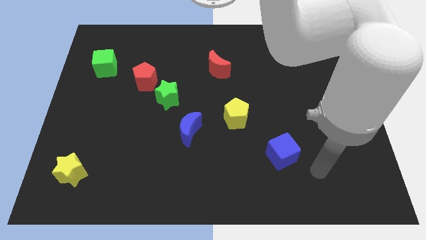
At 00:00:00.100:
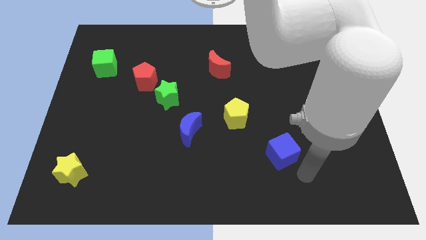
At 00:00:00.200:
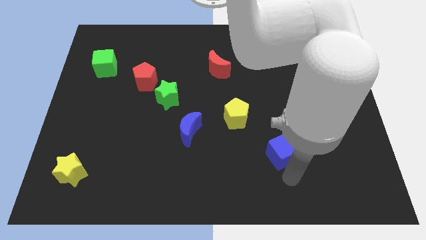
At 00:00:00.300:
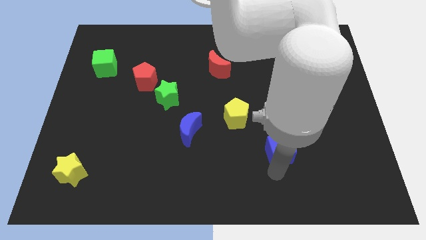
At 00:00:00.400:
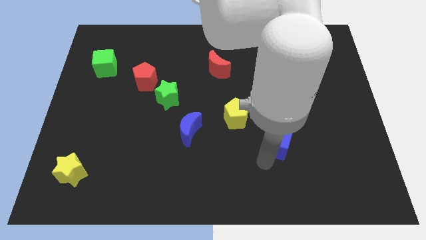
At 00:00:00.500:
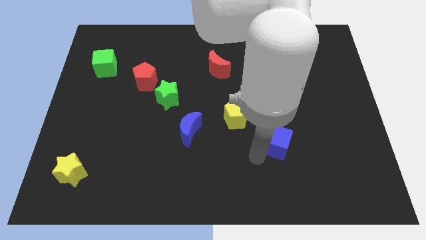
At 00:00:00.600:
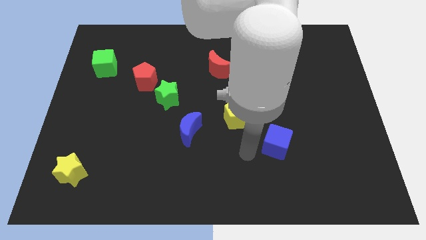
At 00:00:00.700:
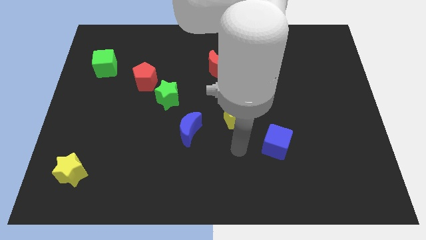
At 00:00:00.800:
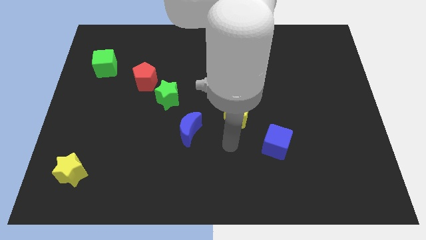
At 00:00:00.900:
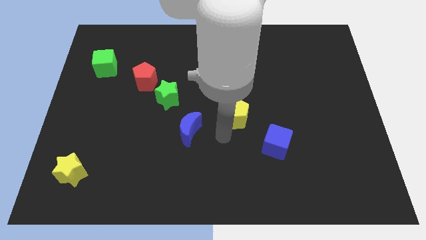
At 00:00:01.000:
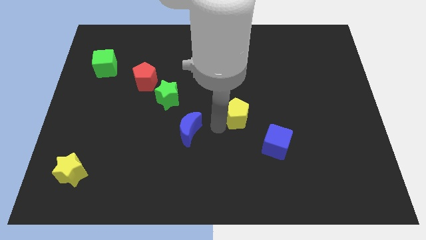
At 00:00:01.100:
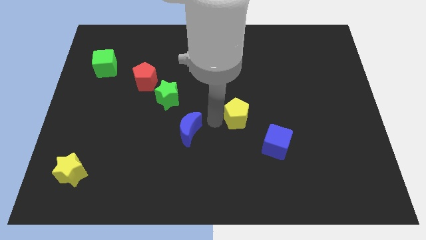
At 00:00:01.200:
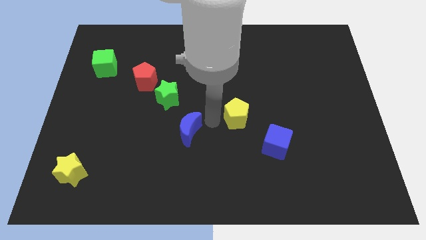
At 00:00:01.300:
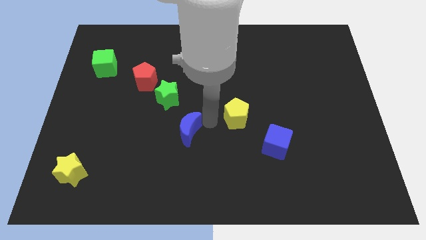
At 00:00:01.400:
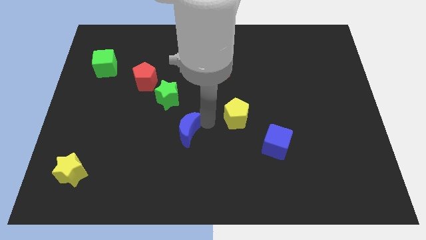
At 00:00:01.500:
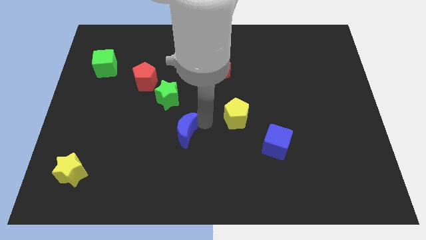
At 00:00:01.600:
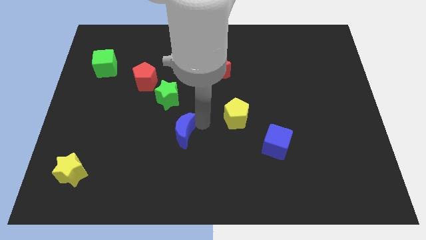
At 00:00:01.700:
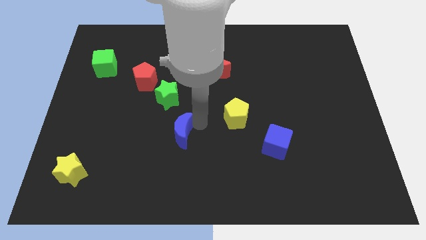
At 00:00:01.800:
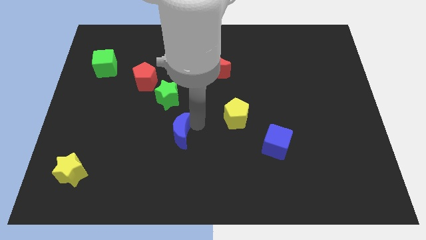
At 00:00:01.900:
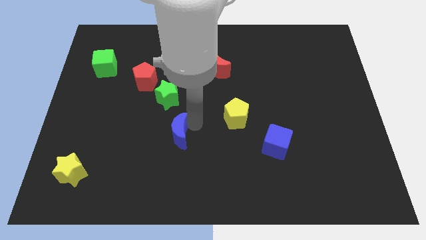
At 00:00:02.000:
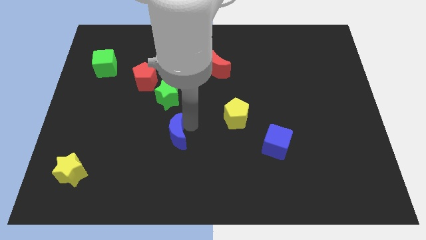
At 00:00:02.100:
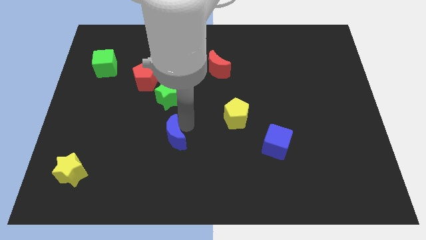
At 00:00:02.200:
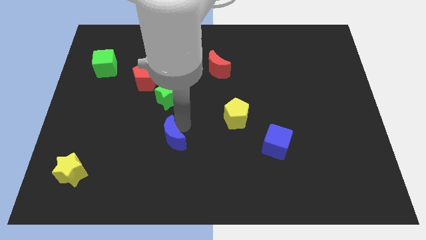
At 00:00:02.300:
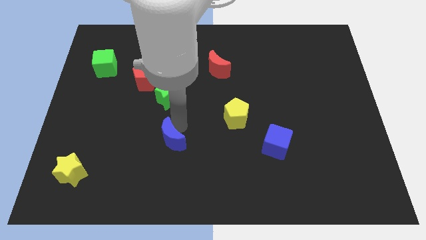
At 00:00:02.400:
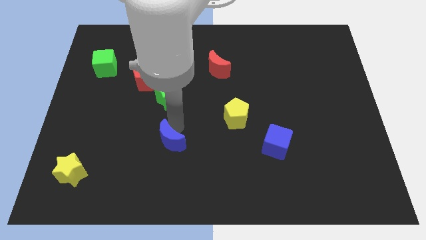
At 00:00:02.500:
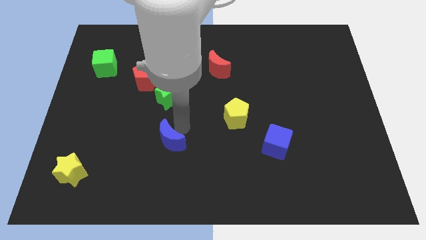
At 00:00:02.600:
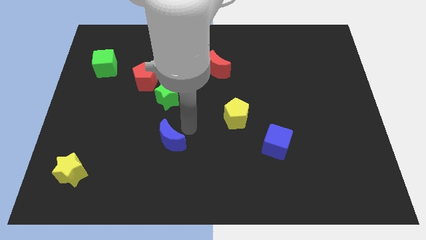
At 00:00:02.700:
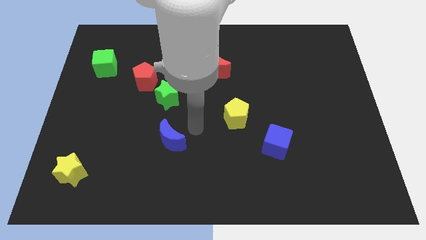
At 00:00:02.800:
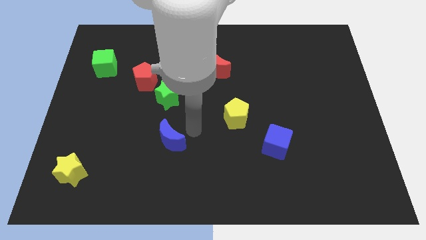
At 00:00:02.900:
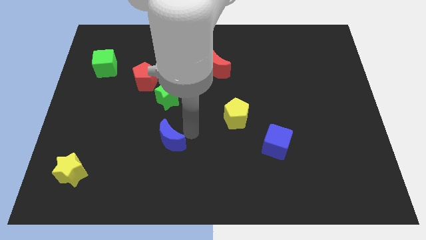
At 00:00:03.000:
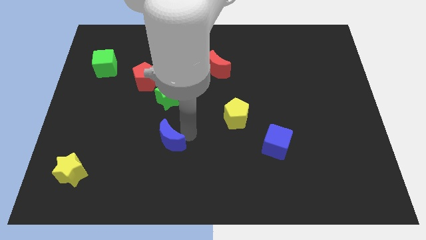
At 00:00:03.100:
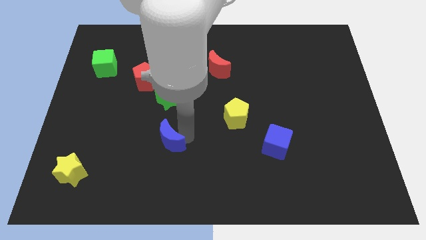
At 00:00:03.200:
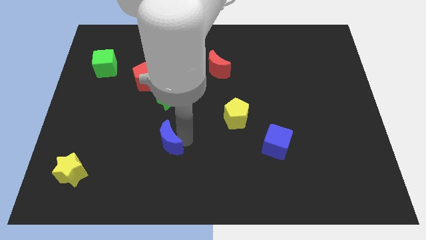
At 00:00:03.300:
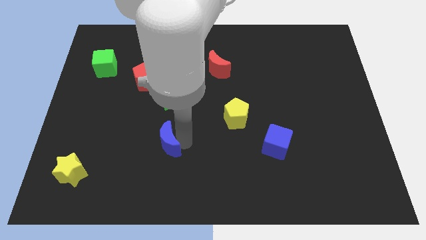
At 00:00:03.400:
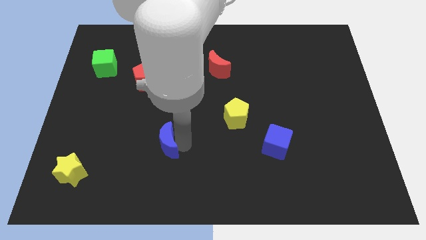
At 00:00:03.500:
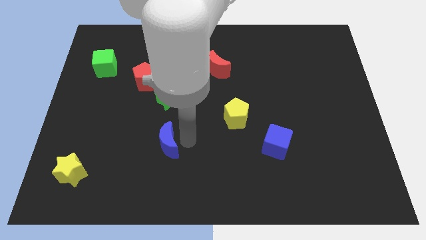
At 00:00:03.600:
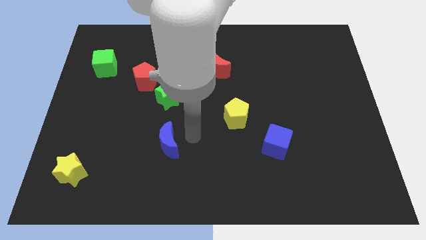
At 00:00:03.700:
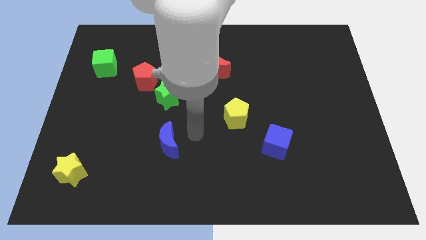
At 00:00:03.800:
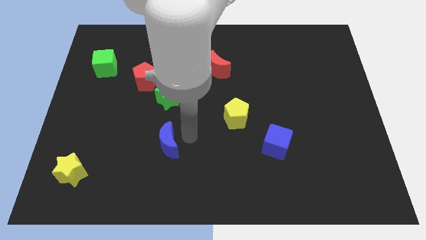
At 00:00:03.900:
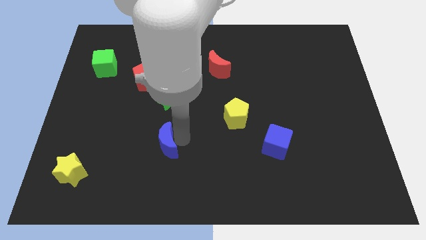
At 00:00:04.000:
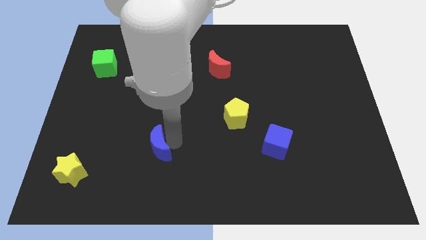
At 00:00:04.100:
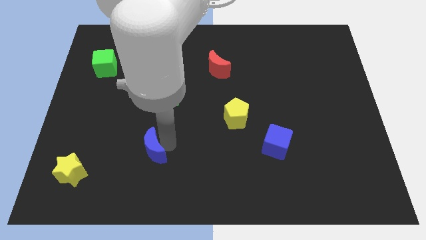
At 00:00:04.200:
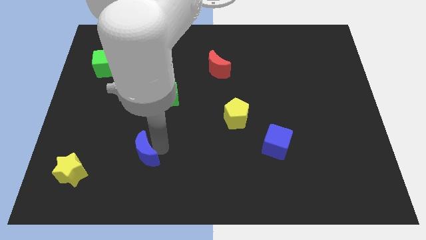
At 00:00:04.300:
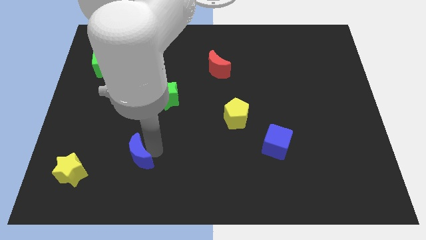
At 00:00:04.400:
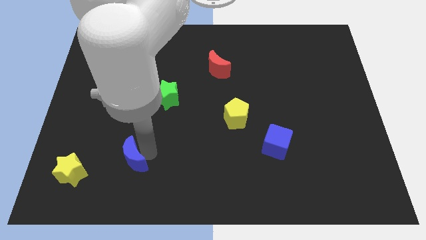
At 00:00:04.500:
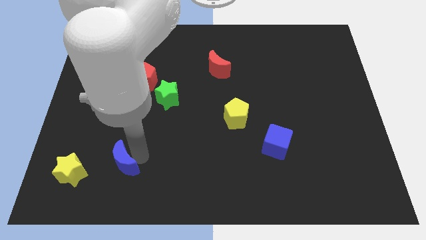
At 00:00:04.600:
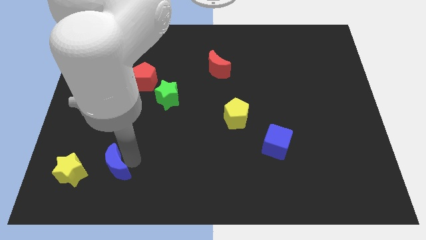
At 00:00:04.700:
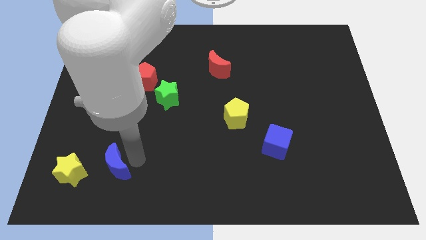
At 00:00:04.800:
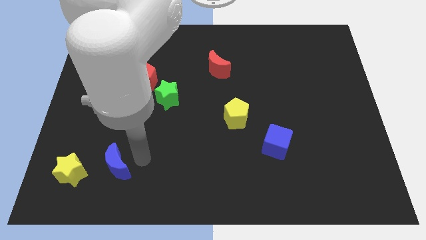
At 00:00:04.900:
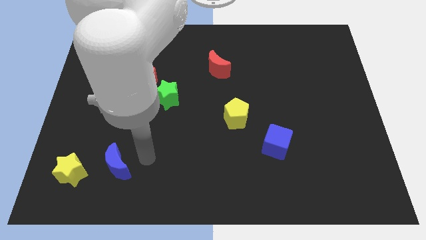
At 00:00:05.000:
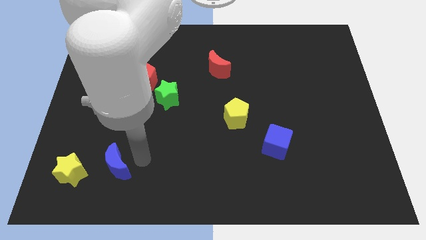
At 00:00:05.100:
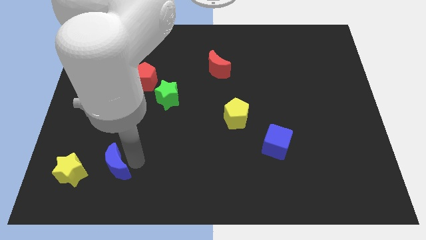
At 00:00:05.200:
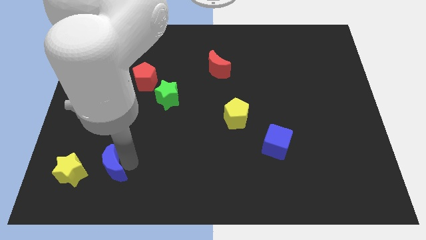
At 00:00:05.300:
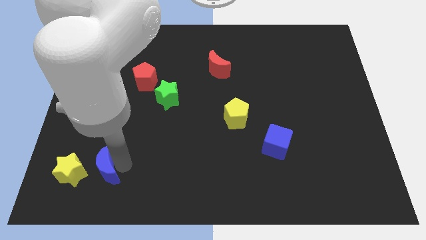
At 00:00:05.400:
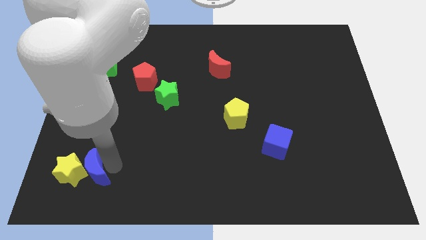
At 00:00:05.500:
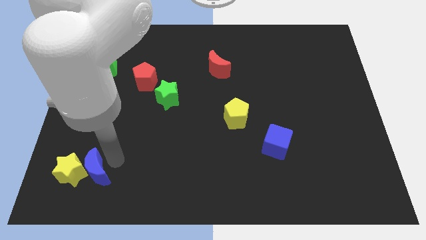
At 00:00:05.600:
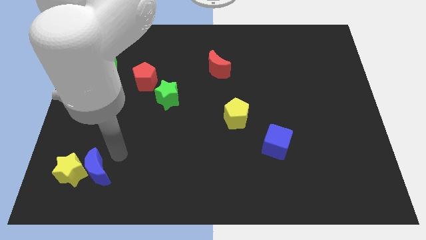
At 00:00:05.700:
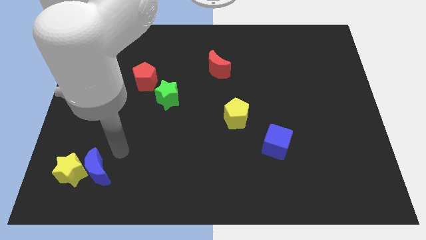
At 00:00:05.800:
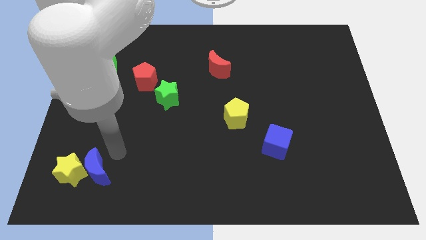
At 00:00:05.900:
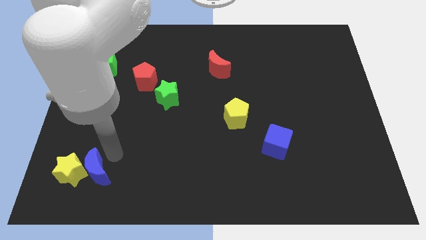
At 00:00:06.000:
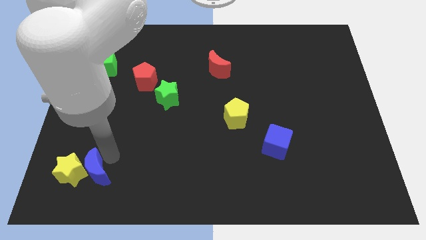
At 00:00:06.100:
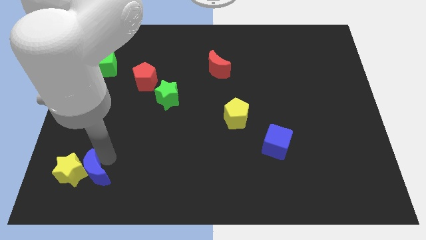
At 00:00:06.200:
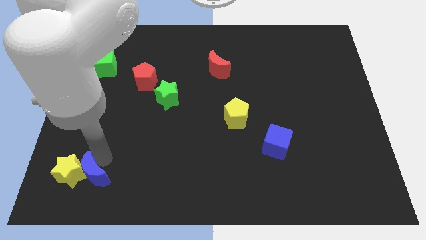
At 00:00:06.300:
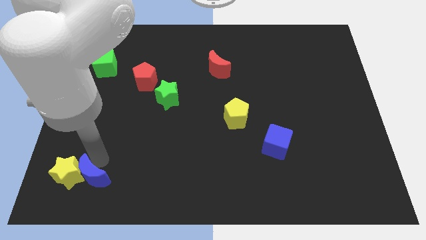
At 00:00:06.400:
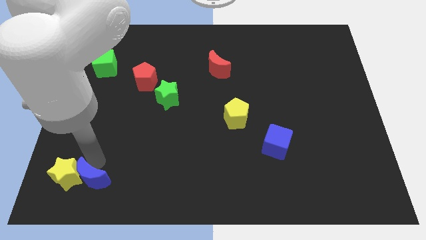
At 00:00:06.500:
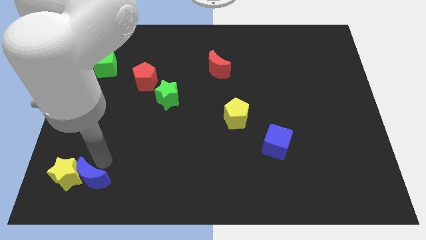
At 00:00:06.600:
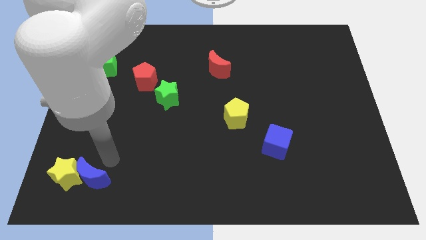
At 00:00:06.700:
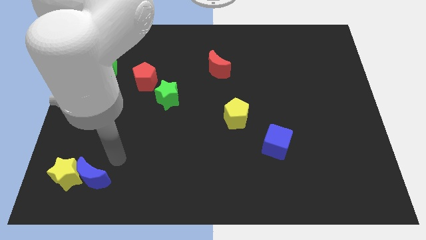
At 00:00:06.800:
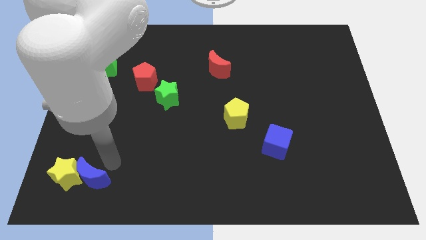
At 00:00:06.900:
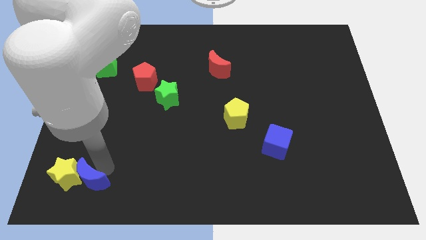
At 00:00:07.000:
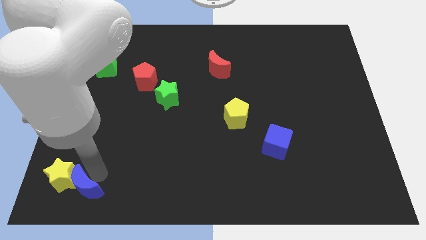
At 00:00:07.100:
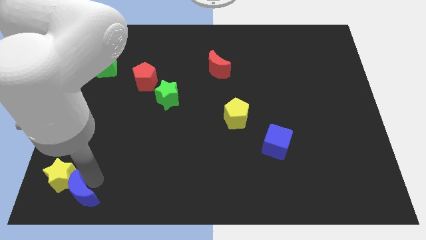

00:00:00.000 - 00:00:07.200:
slide the blue moon to the lower left corner
